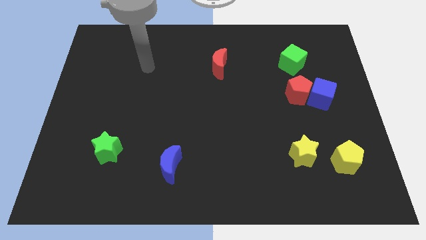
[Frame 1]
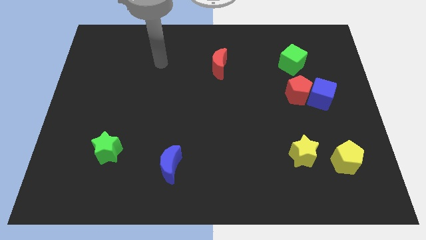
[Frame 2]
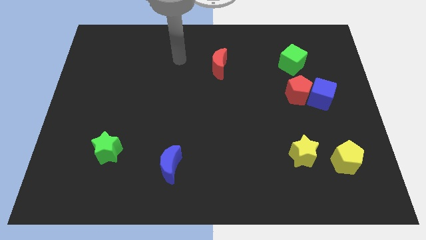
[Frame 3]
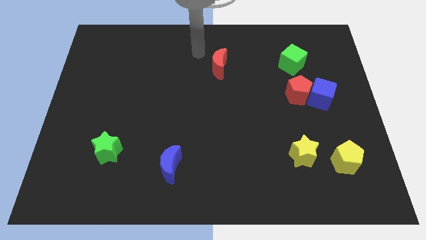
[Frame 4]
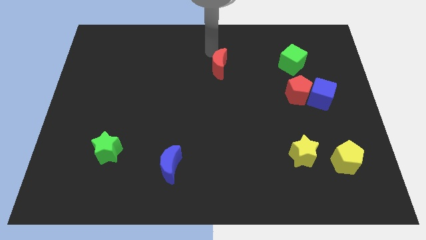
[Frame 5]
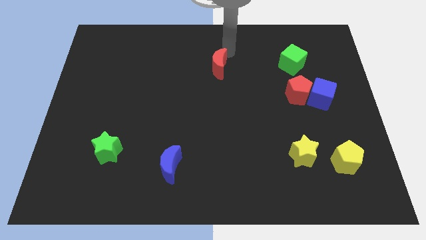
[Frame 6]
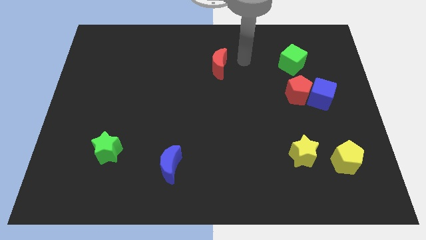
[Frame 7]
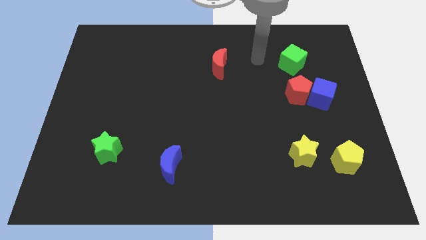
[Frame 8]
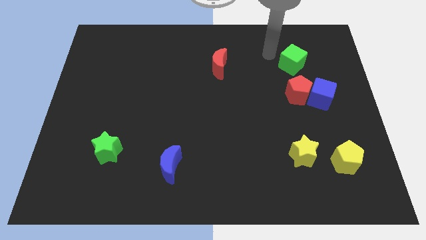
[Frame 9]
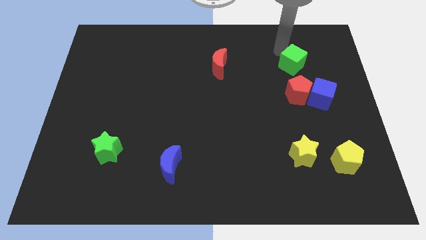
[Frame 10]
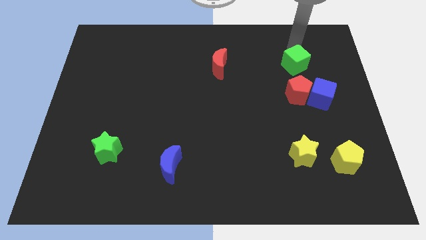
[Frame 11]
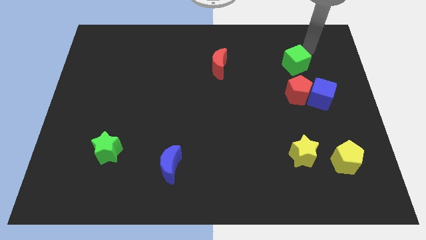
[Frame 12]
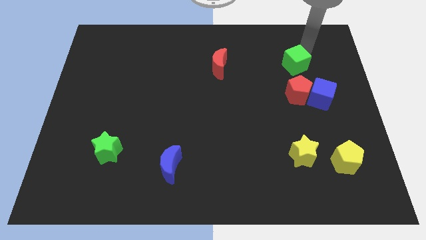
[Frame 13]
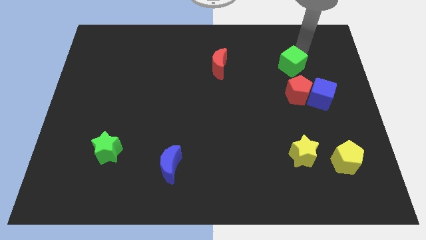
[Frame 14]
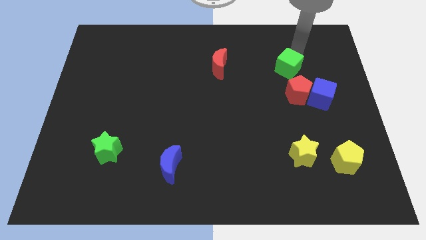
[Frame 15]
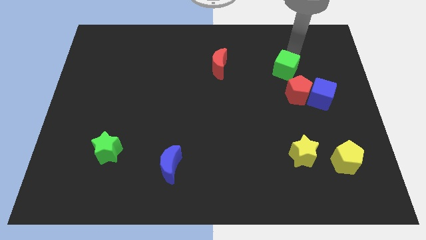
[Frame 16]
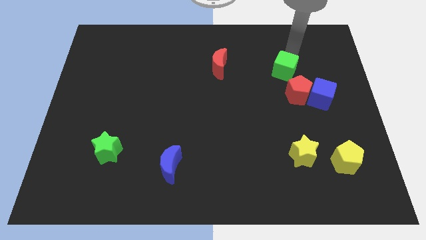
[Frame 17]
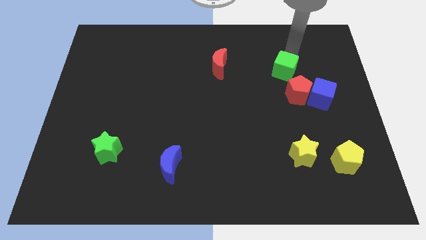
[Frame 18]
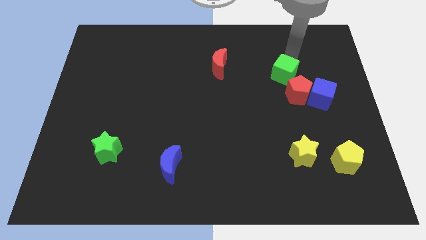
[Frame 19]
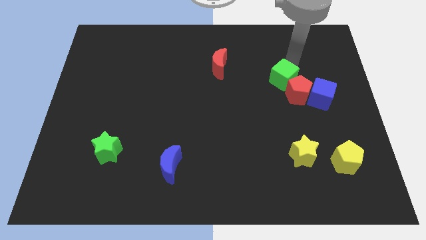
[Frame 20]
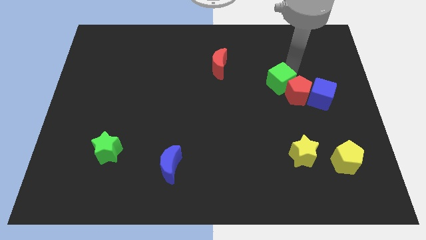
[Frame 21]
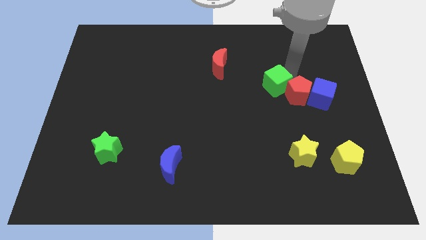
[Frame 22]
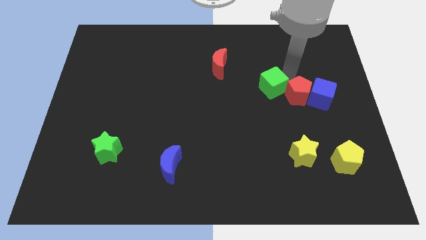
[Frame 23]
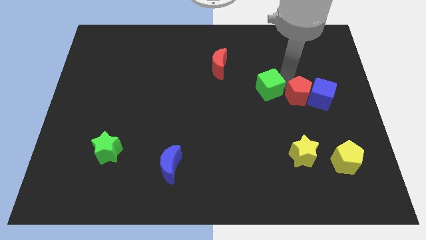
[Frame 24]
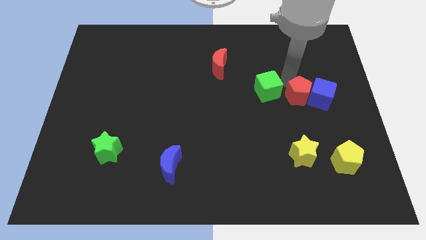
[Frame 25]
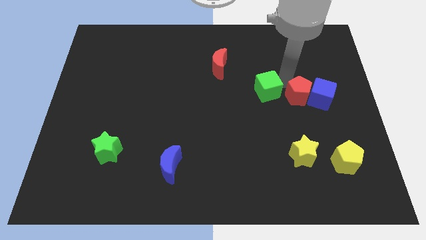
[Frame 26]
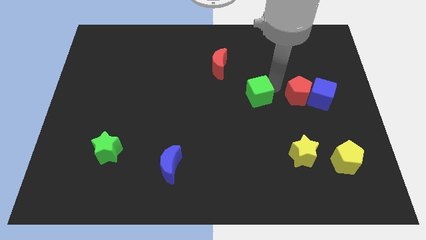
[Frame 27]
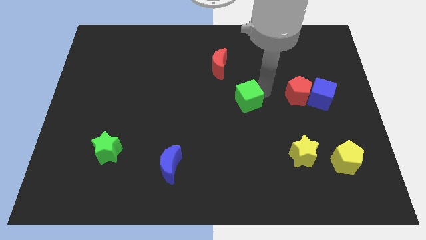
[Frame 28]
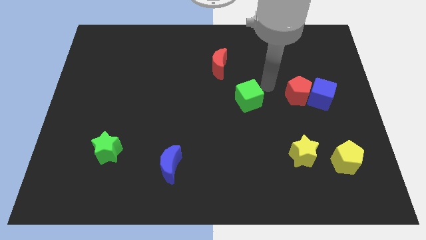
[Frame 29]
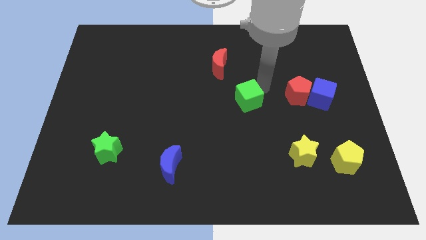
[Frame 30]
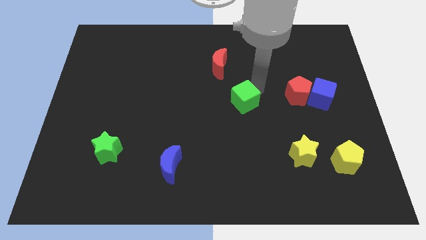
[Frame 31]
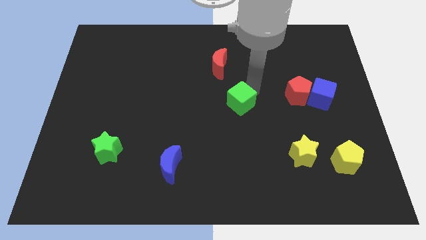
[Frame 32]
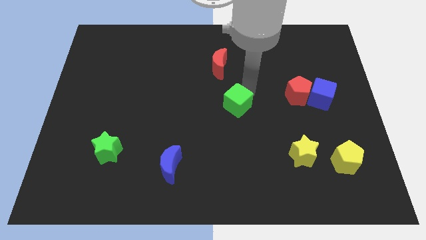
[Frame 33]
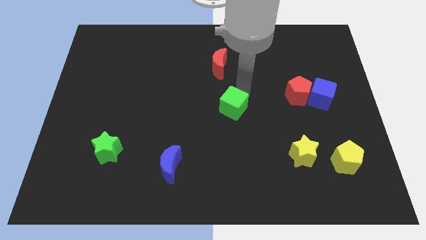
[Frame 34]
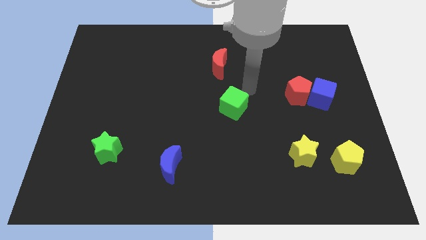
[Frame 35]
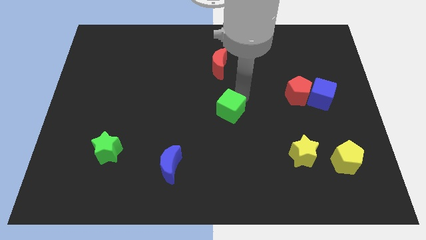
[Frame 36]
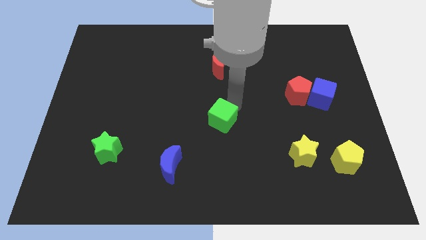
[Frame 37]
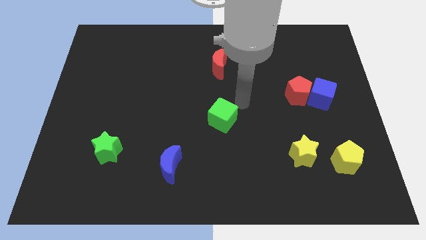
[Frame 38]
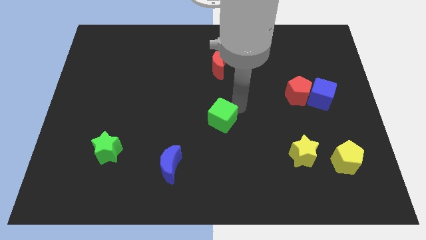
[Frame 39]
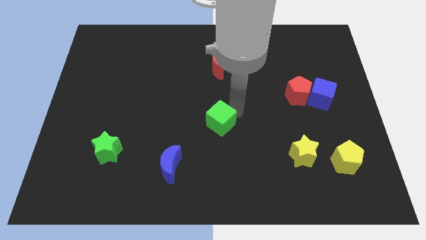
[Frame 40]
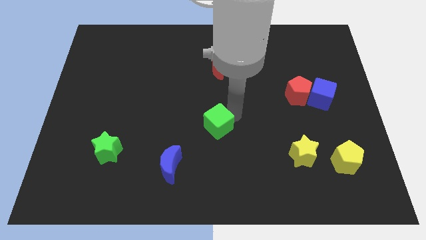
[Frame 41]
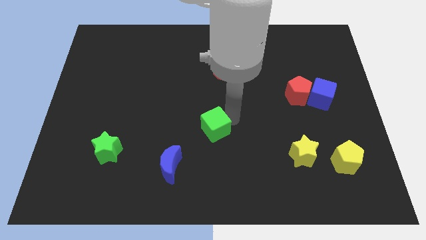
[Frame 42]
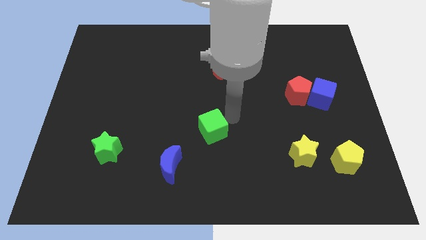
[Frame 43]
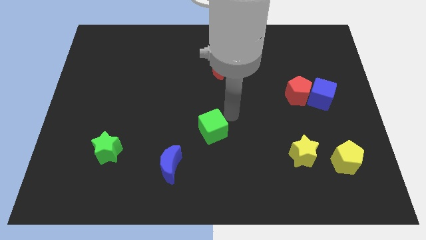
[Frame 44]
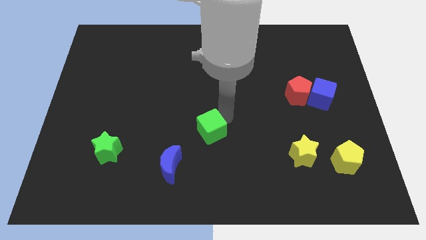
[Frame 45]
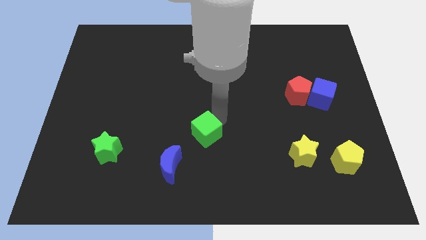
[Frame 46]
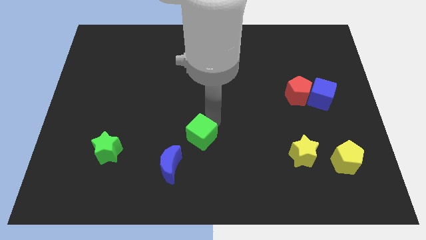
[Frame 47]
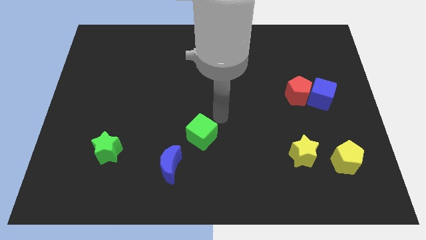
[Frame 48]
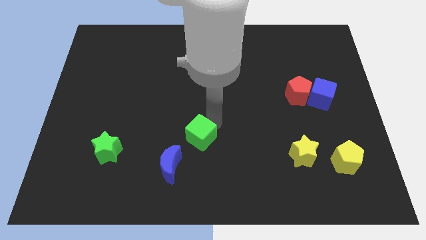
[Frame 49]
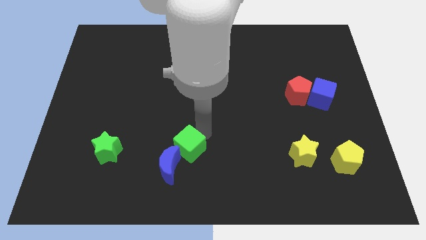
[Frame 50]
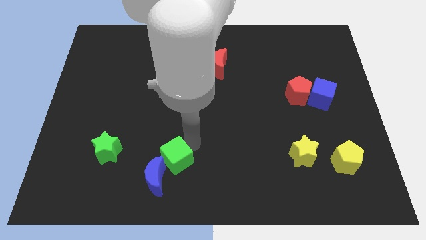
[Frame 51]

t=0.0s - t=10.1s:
put the green cube towards the blue moon

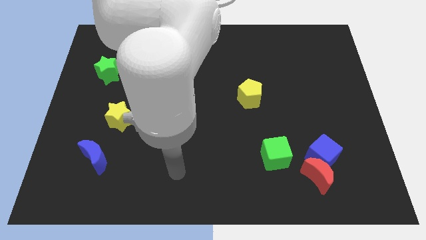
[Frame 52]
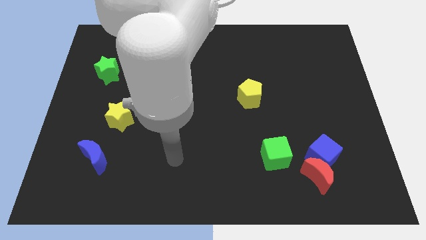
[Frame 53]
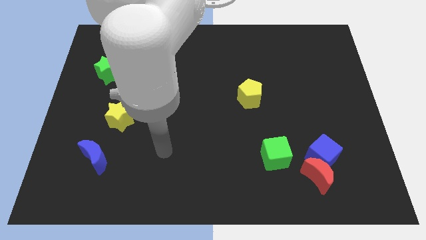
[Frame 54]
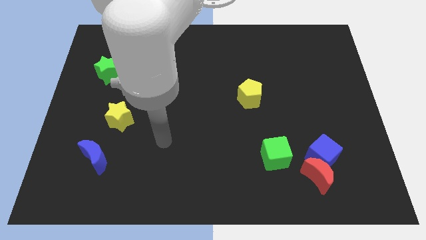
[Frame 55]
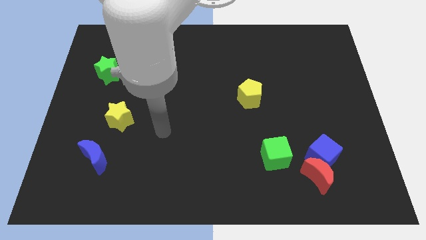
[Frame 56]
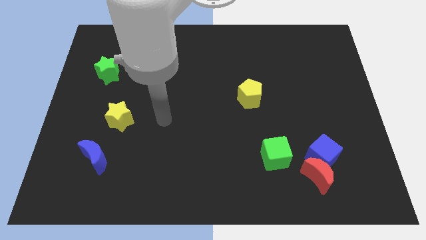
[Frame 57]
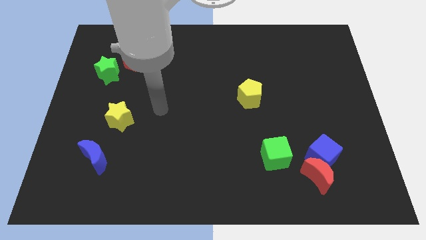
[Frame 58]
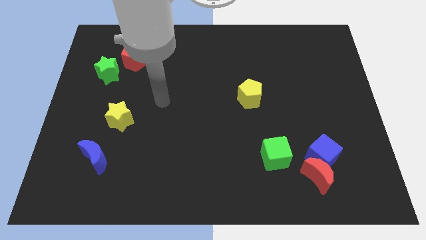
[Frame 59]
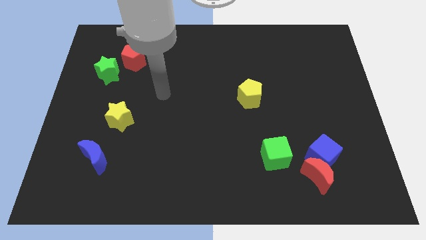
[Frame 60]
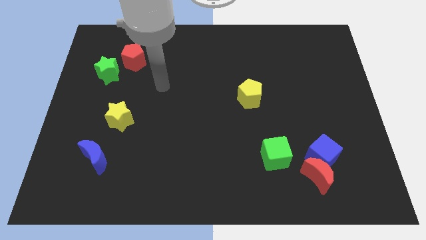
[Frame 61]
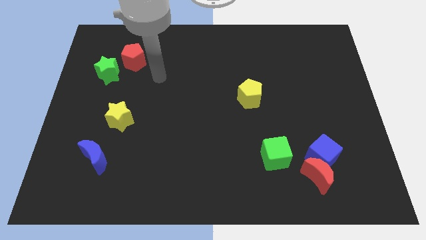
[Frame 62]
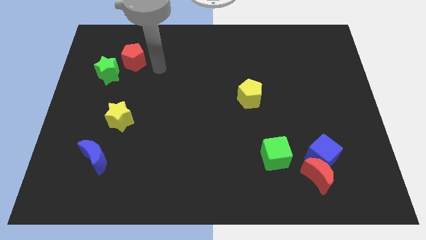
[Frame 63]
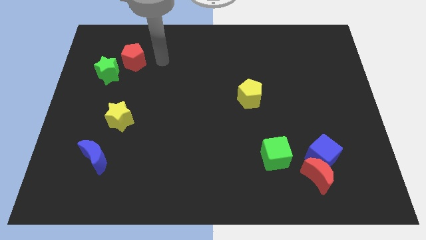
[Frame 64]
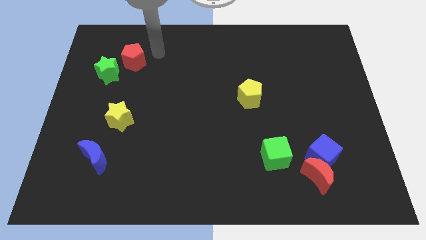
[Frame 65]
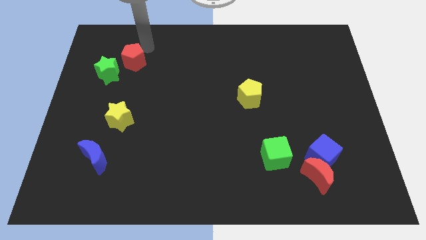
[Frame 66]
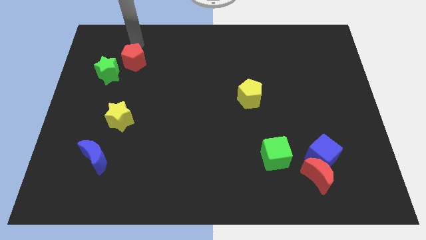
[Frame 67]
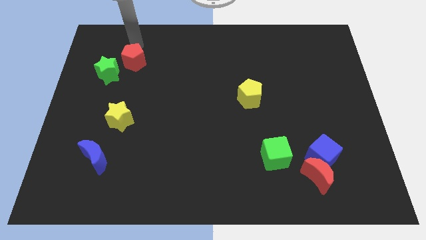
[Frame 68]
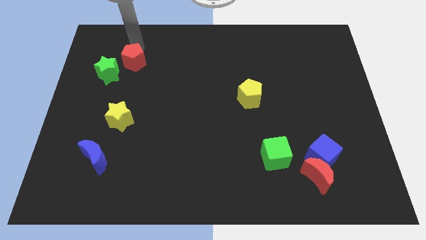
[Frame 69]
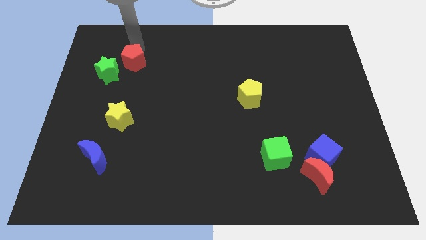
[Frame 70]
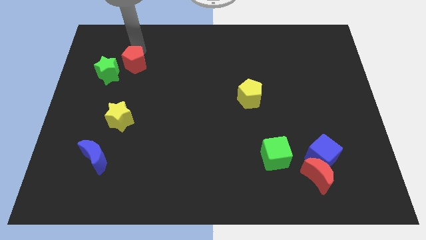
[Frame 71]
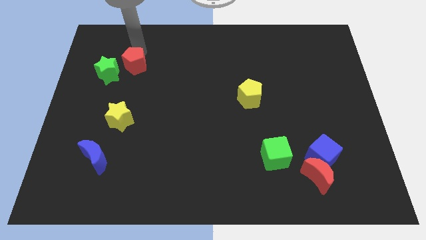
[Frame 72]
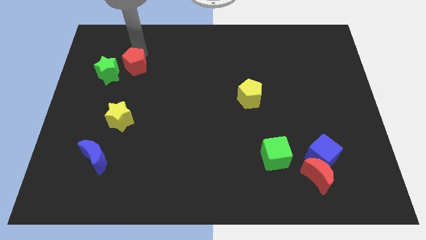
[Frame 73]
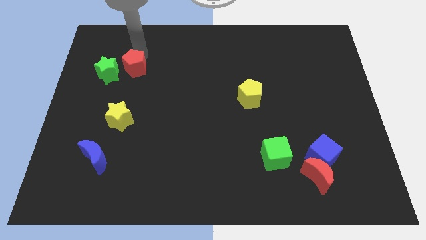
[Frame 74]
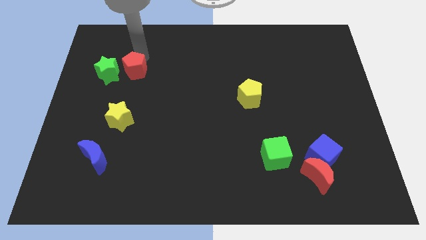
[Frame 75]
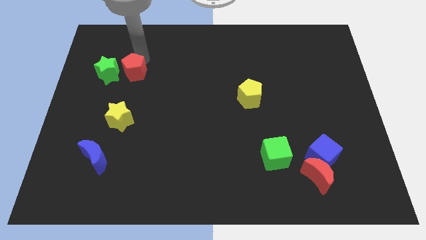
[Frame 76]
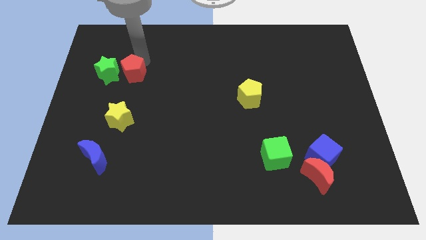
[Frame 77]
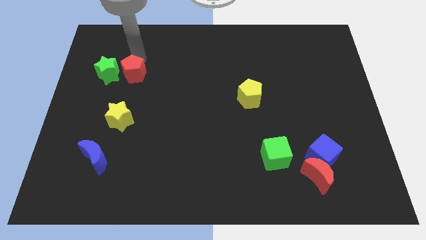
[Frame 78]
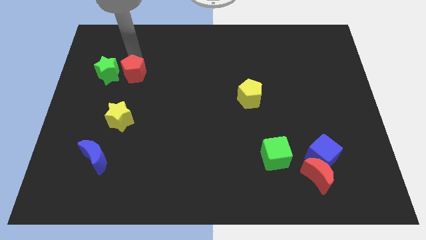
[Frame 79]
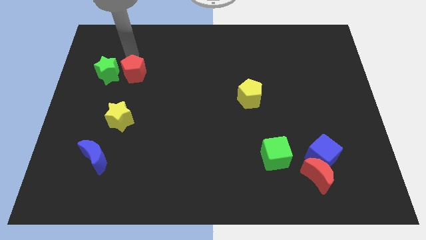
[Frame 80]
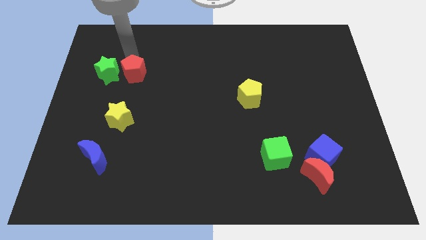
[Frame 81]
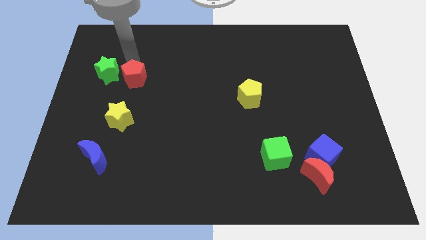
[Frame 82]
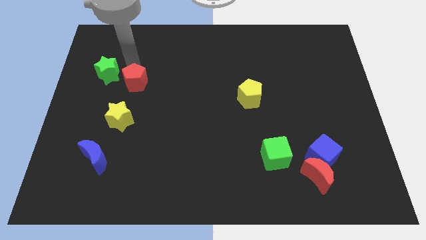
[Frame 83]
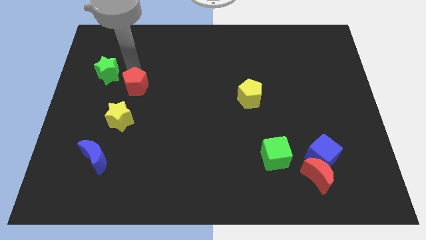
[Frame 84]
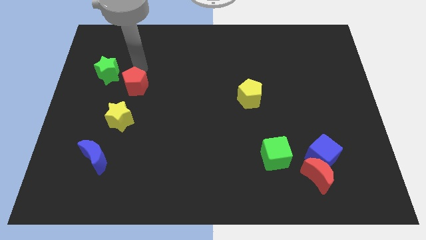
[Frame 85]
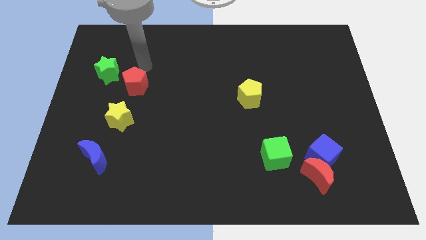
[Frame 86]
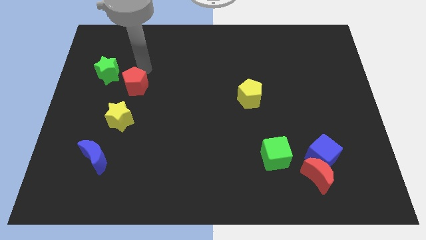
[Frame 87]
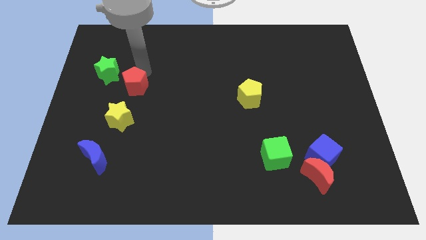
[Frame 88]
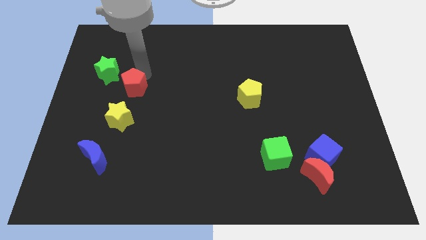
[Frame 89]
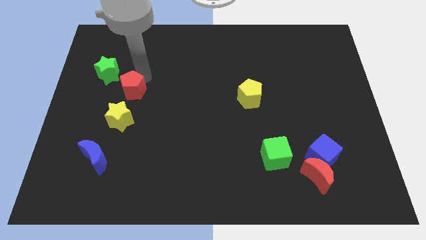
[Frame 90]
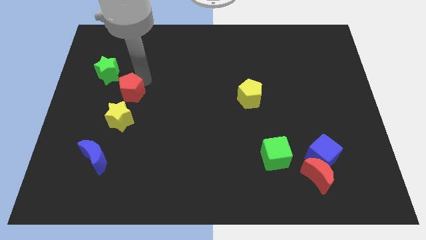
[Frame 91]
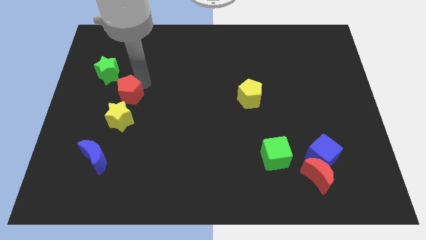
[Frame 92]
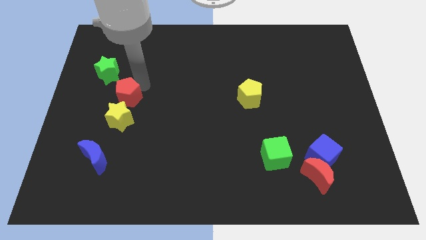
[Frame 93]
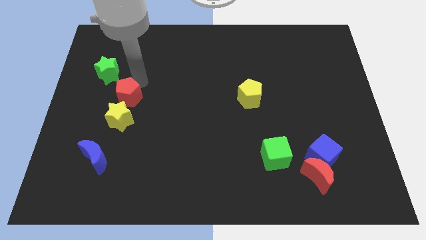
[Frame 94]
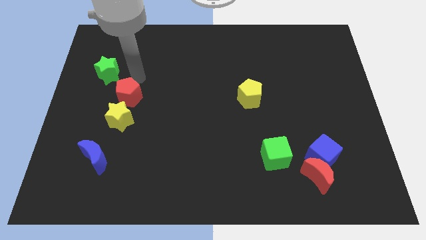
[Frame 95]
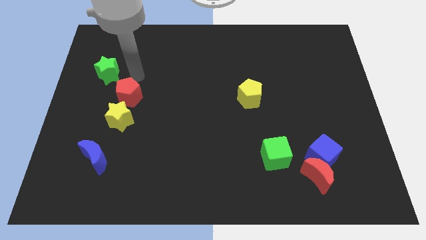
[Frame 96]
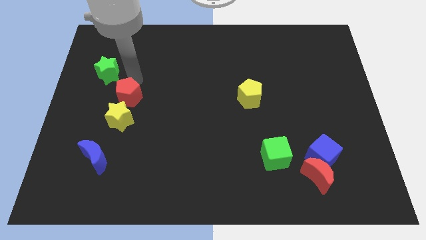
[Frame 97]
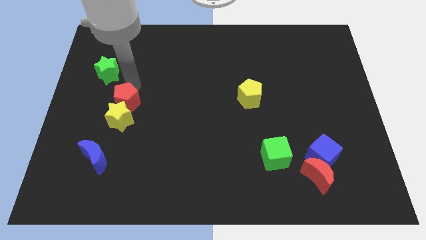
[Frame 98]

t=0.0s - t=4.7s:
move the red pentagon to the yellow star
